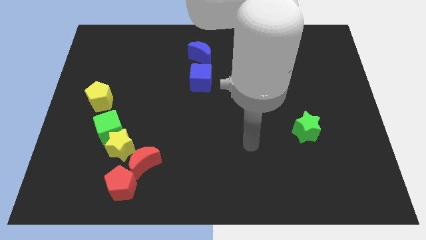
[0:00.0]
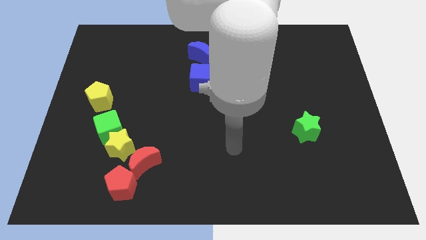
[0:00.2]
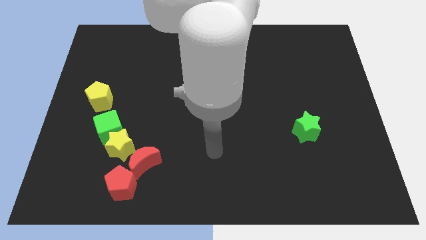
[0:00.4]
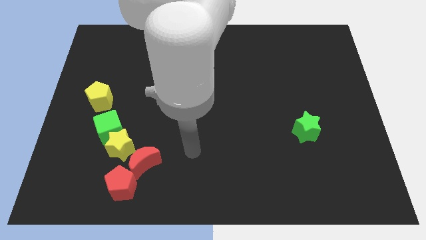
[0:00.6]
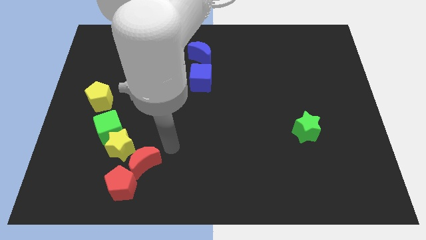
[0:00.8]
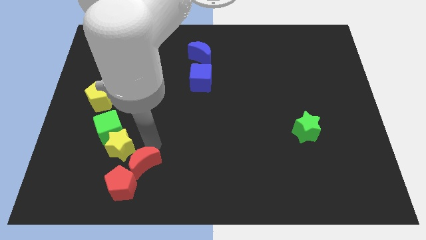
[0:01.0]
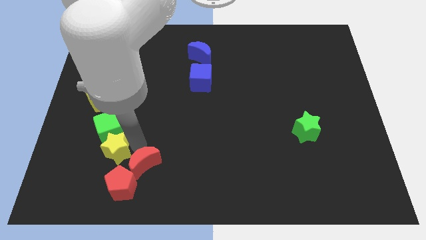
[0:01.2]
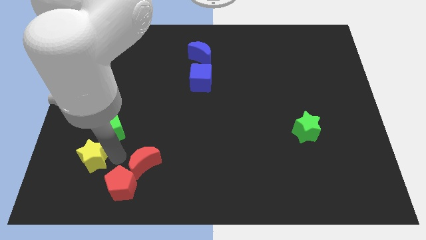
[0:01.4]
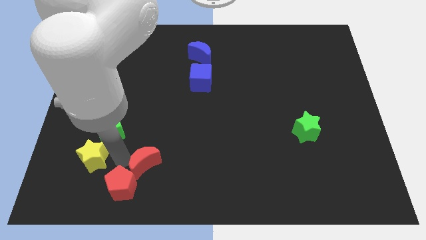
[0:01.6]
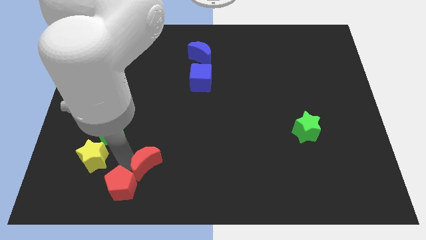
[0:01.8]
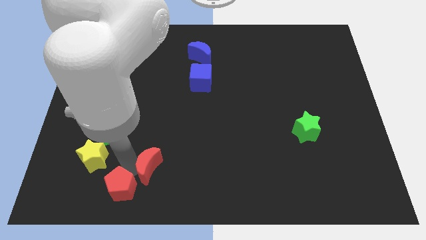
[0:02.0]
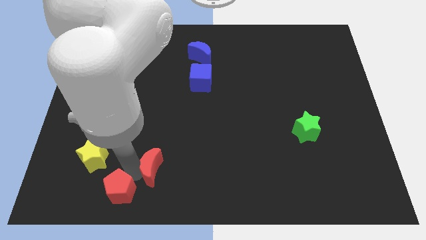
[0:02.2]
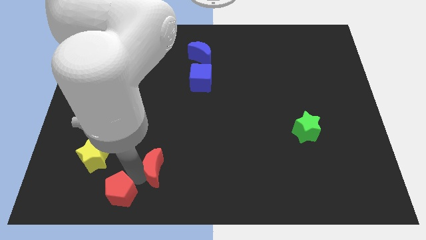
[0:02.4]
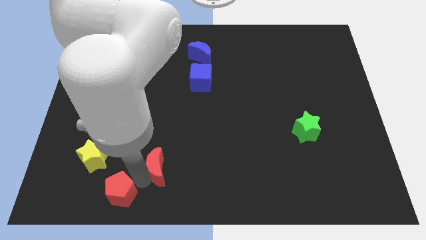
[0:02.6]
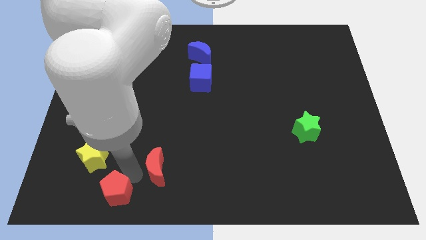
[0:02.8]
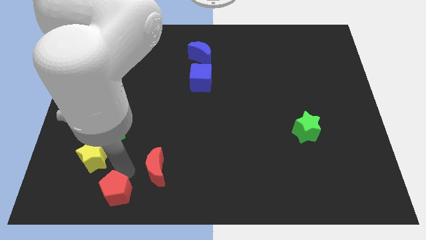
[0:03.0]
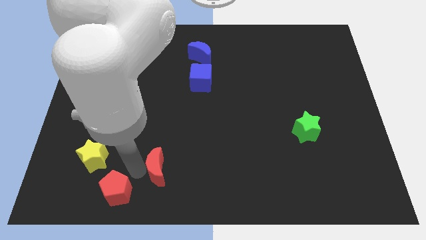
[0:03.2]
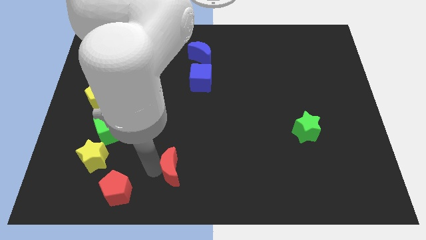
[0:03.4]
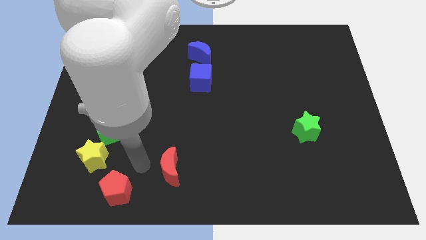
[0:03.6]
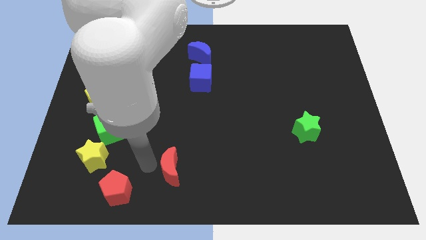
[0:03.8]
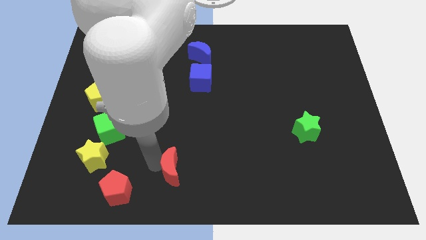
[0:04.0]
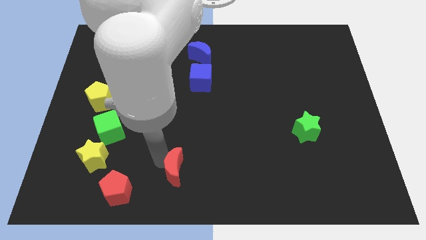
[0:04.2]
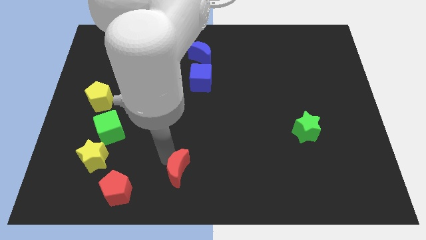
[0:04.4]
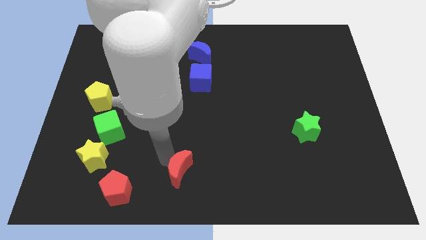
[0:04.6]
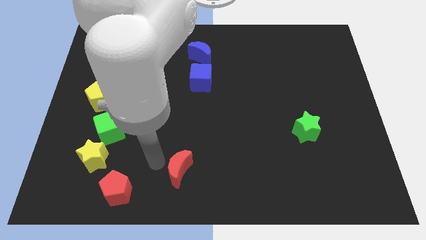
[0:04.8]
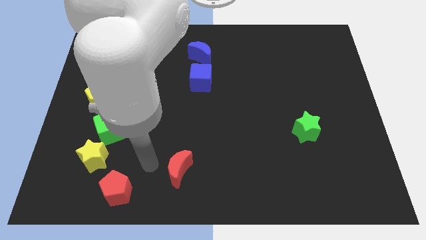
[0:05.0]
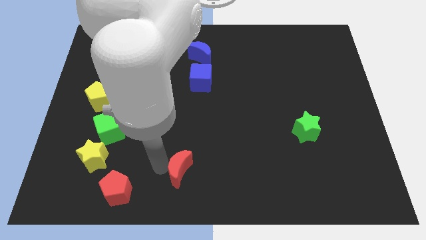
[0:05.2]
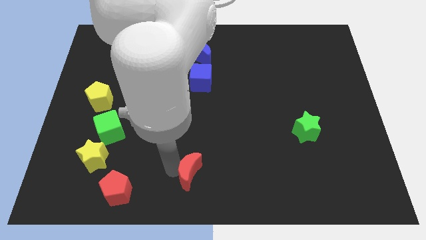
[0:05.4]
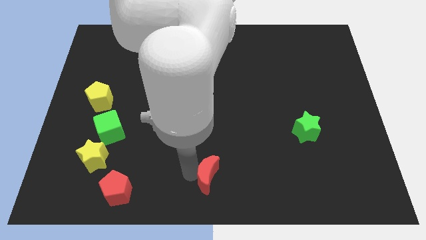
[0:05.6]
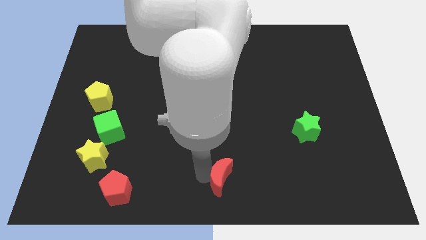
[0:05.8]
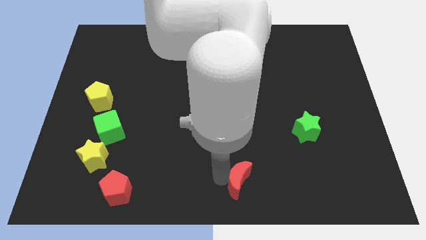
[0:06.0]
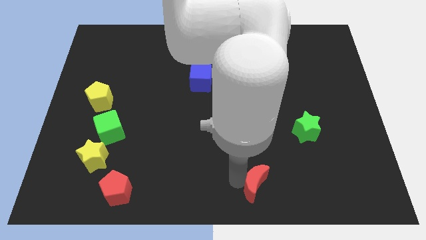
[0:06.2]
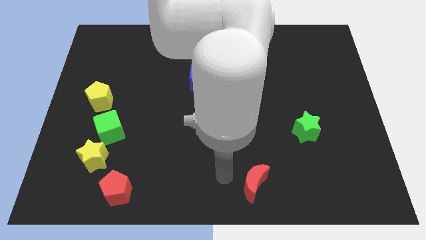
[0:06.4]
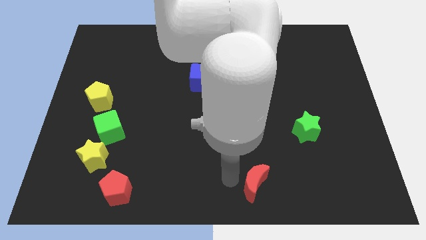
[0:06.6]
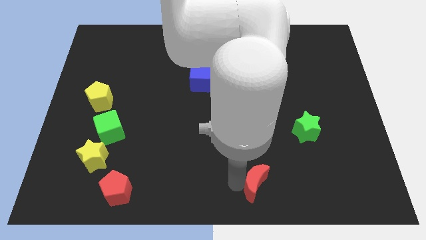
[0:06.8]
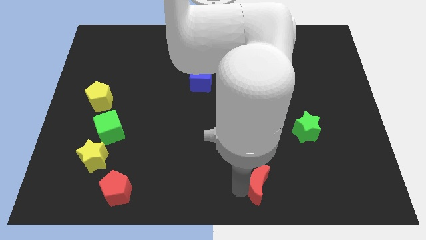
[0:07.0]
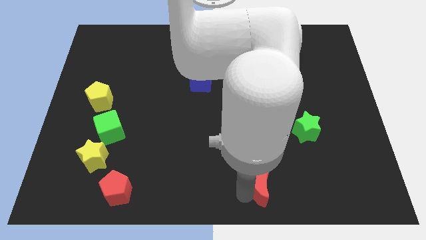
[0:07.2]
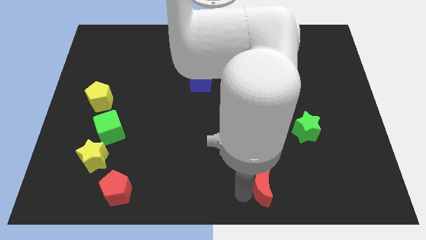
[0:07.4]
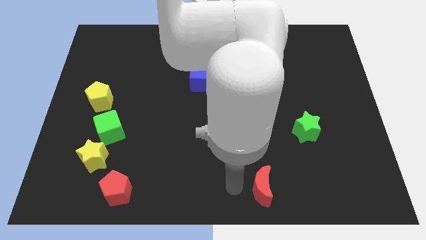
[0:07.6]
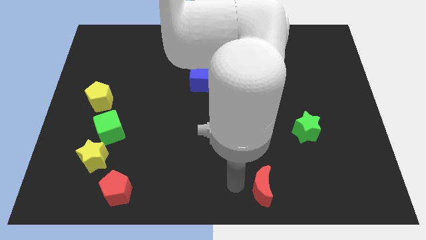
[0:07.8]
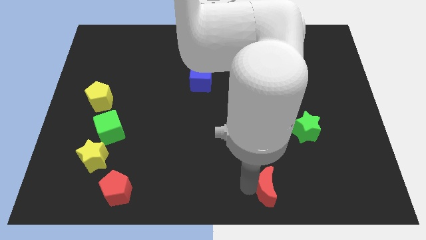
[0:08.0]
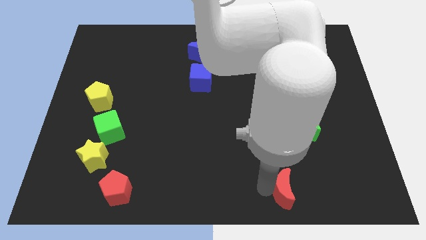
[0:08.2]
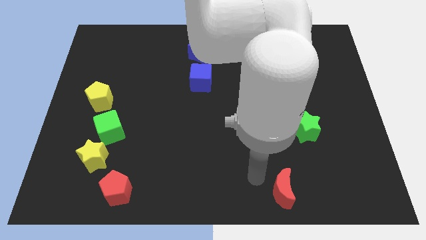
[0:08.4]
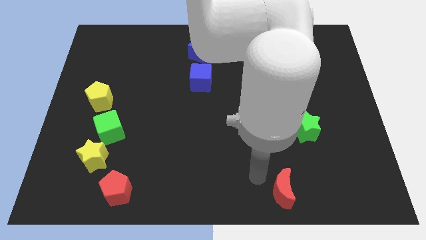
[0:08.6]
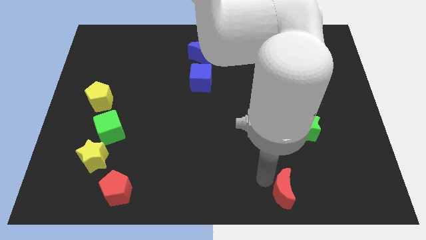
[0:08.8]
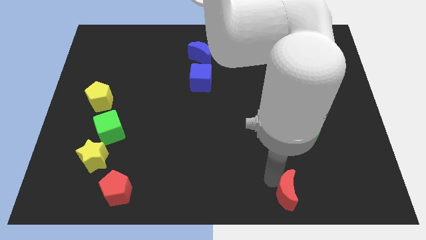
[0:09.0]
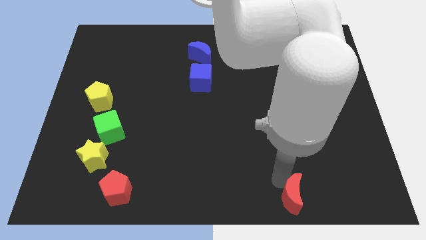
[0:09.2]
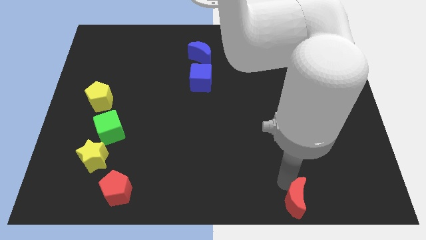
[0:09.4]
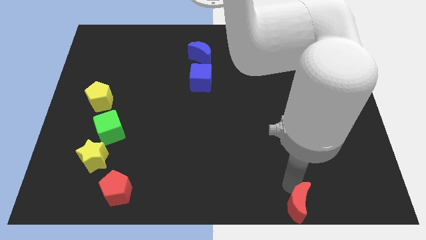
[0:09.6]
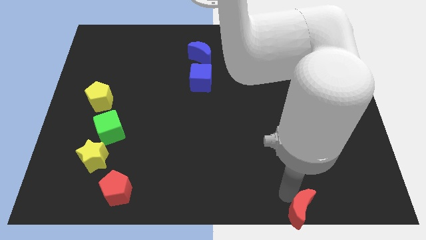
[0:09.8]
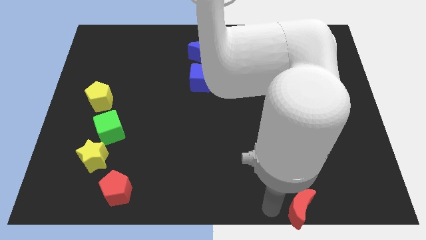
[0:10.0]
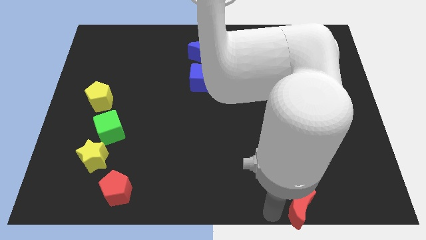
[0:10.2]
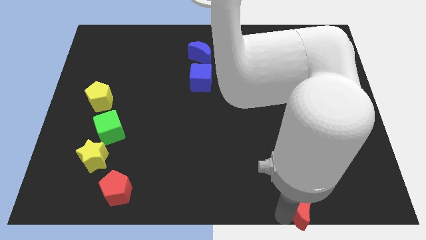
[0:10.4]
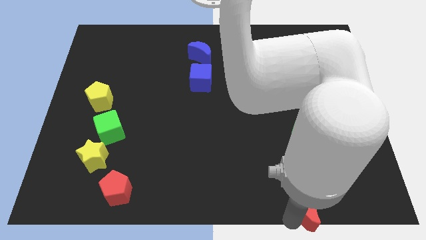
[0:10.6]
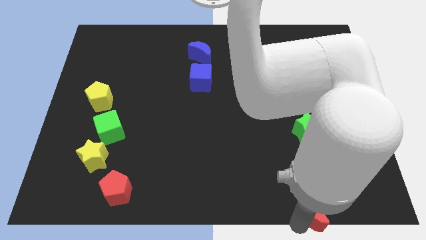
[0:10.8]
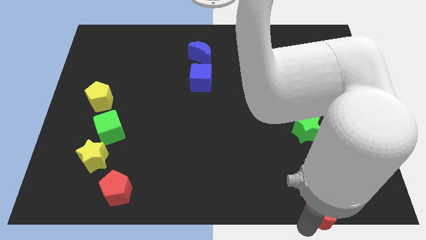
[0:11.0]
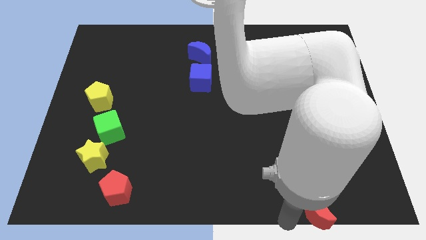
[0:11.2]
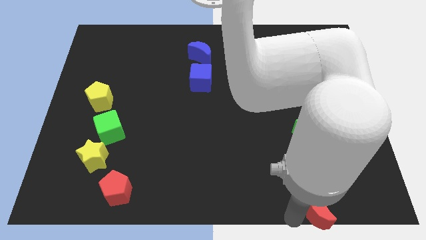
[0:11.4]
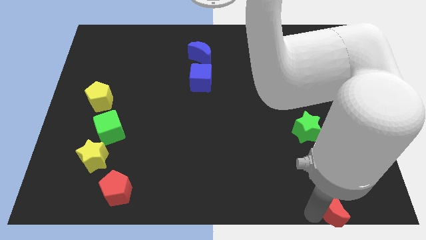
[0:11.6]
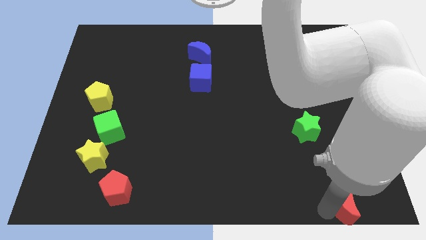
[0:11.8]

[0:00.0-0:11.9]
put the red moon to the bottom right

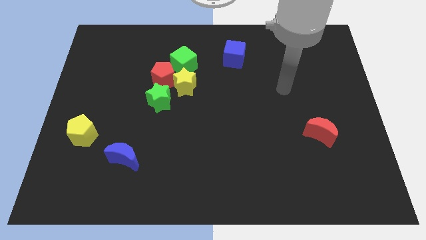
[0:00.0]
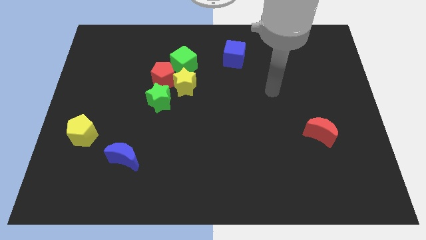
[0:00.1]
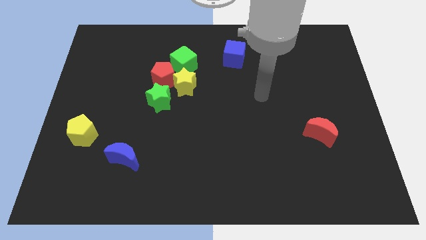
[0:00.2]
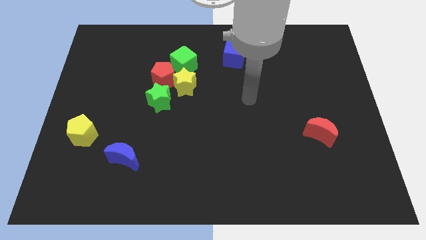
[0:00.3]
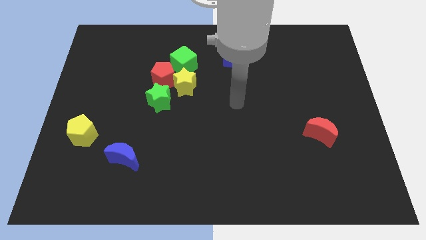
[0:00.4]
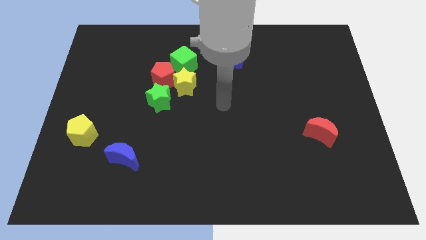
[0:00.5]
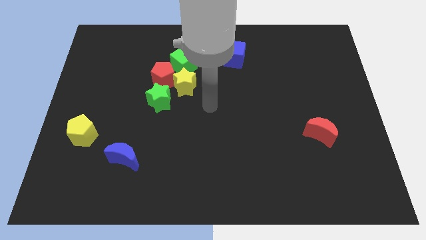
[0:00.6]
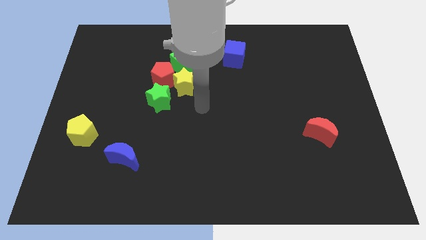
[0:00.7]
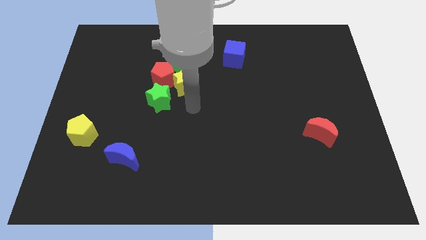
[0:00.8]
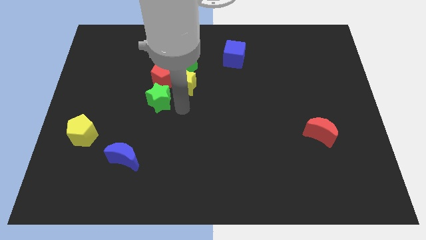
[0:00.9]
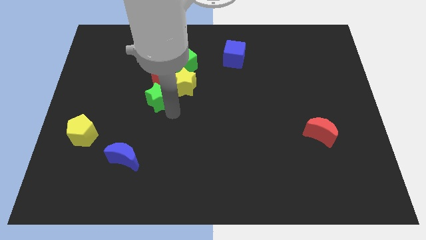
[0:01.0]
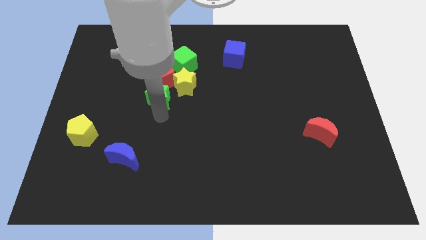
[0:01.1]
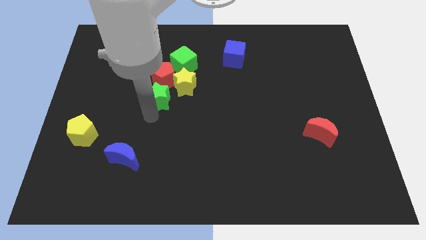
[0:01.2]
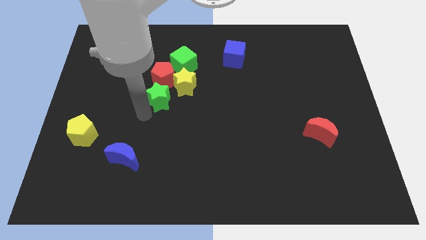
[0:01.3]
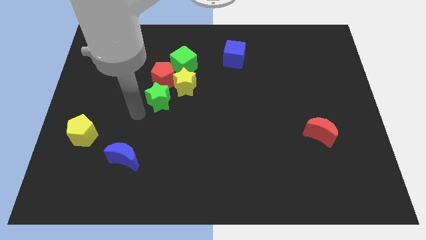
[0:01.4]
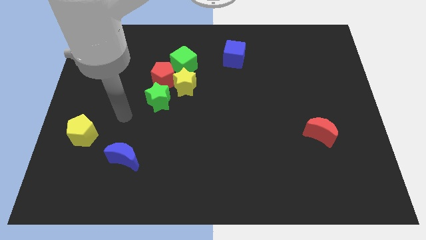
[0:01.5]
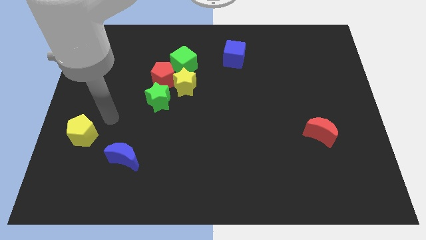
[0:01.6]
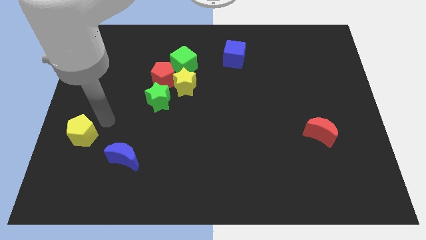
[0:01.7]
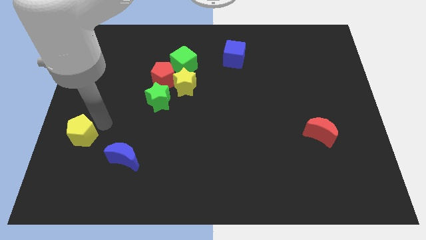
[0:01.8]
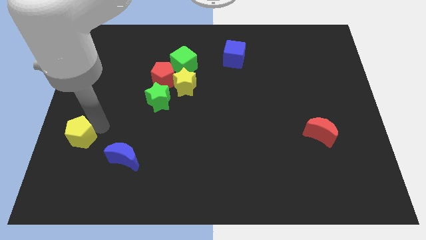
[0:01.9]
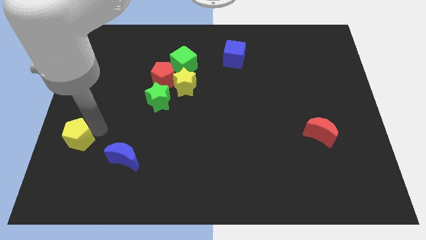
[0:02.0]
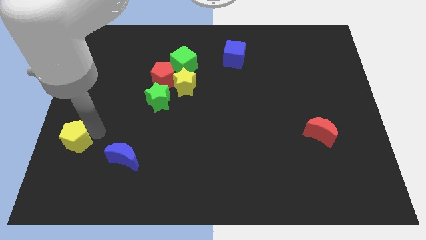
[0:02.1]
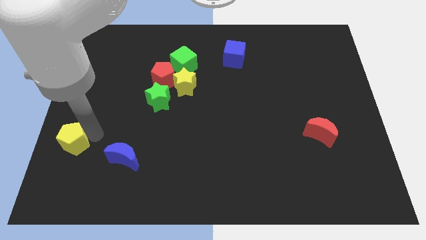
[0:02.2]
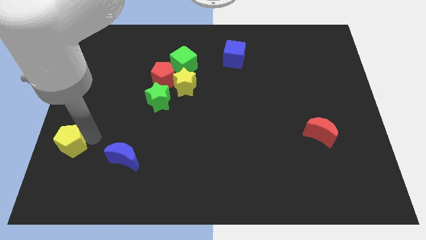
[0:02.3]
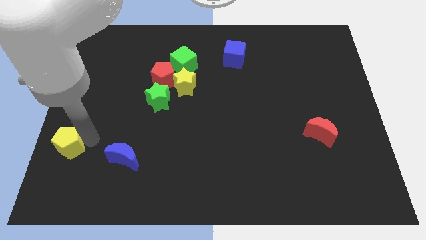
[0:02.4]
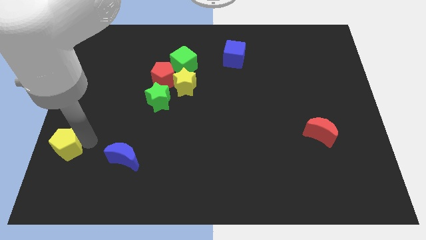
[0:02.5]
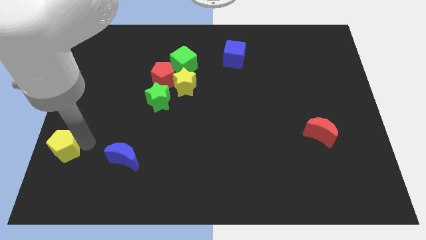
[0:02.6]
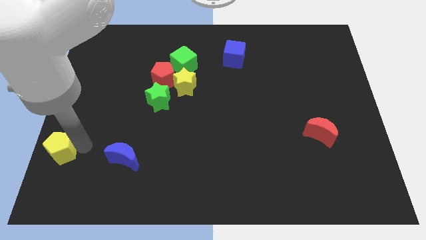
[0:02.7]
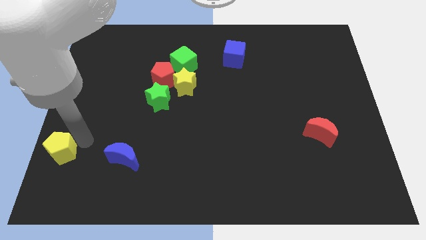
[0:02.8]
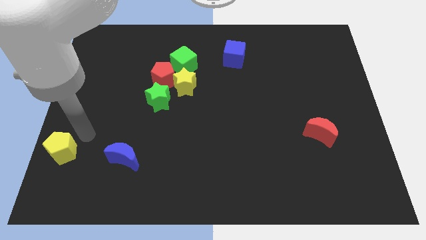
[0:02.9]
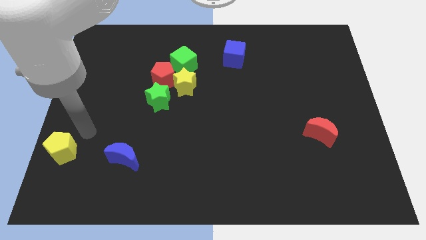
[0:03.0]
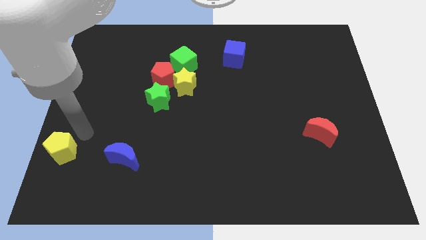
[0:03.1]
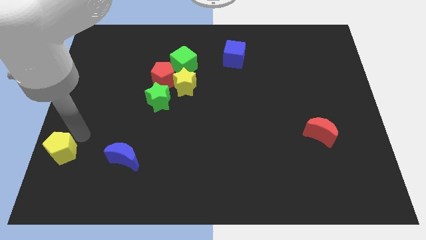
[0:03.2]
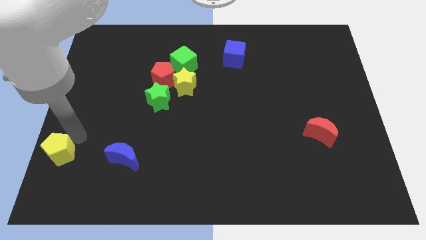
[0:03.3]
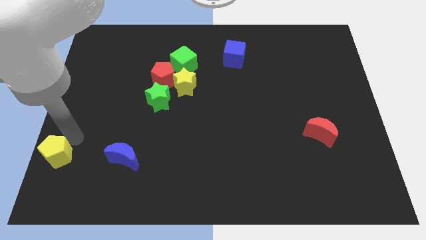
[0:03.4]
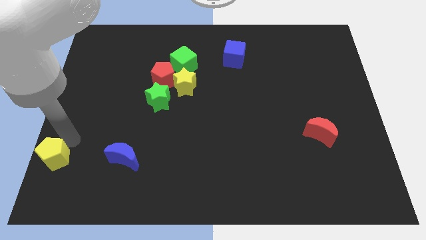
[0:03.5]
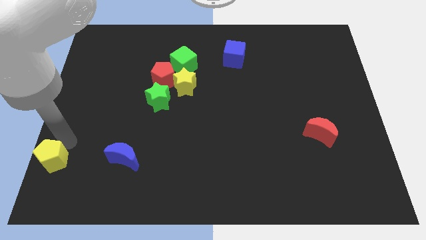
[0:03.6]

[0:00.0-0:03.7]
push the yellow pentagon to the lower left corner
